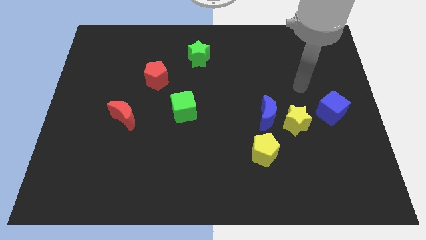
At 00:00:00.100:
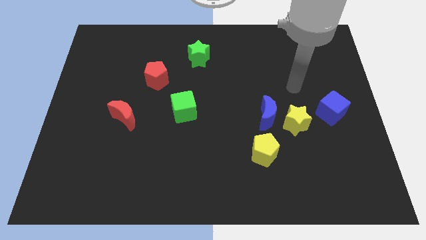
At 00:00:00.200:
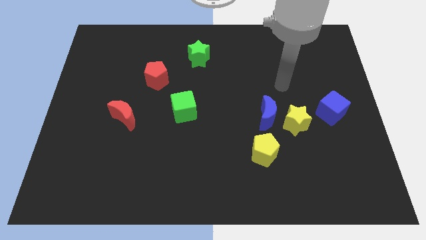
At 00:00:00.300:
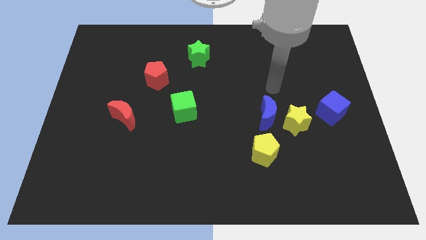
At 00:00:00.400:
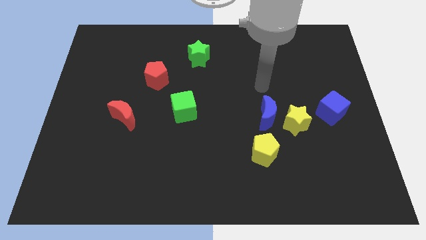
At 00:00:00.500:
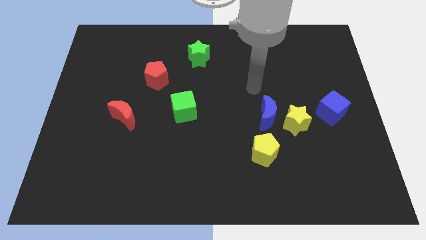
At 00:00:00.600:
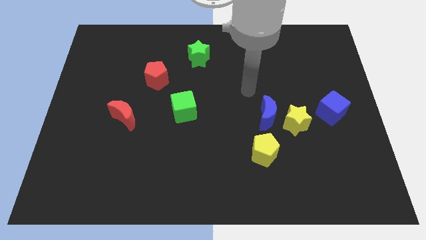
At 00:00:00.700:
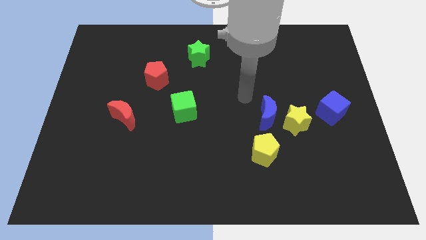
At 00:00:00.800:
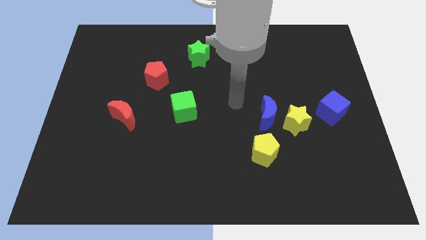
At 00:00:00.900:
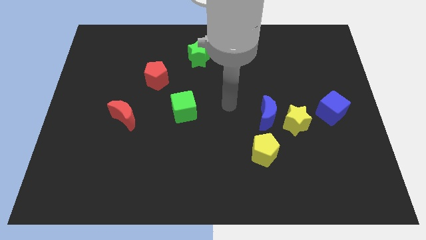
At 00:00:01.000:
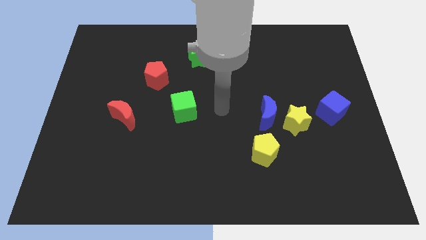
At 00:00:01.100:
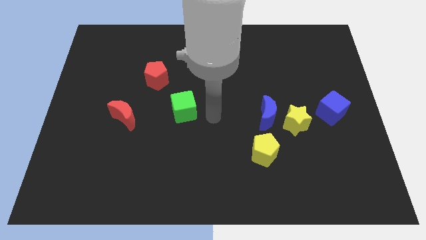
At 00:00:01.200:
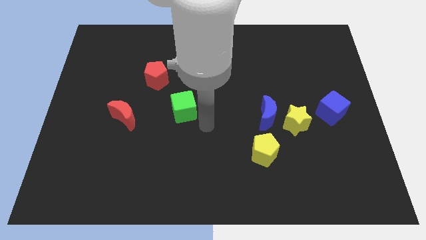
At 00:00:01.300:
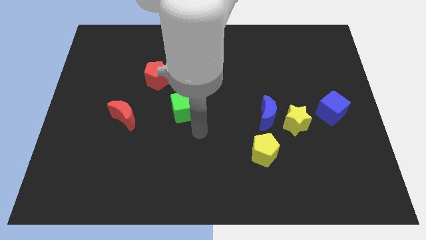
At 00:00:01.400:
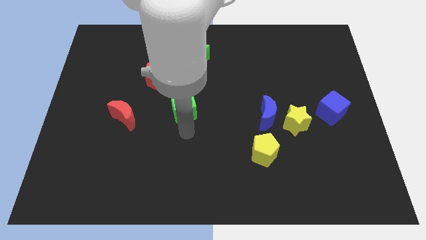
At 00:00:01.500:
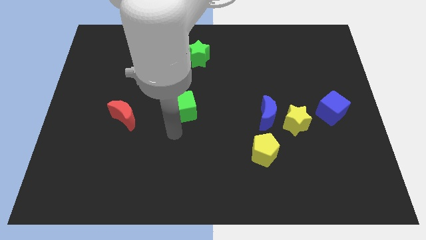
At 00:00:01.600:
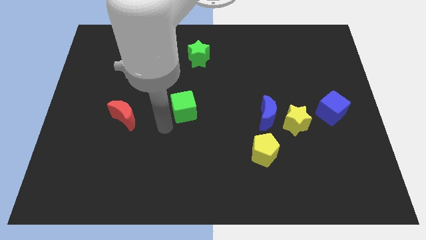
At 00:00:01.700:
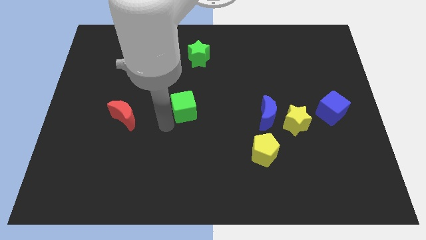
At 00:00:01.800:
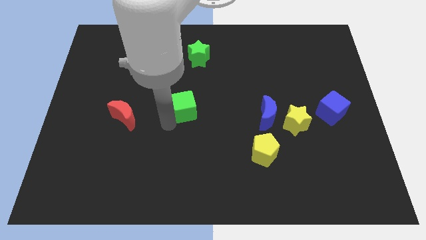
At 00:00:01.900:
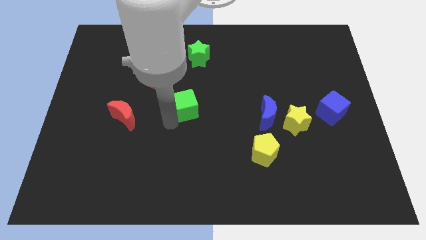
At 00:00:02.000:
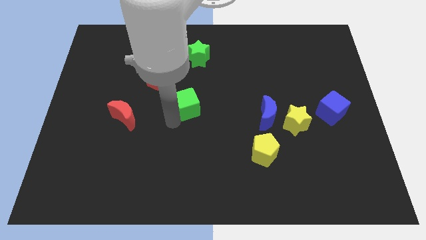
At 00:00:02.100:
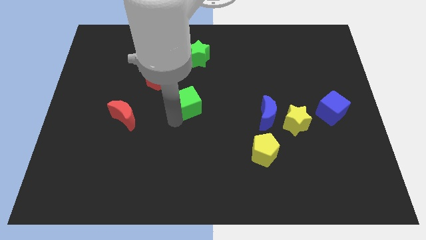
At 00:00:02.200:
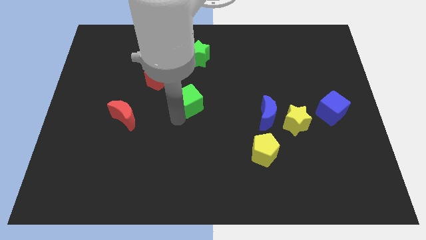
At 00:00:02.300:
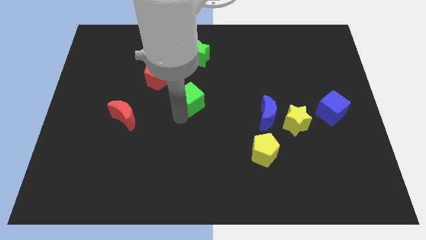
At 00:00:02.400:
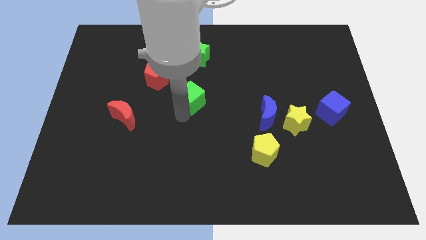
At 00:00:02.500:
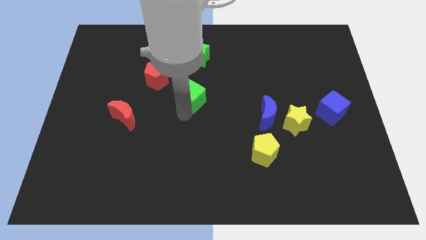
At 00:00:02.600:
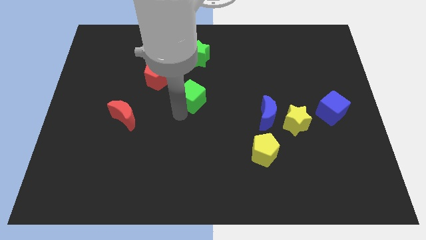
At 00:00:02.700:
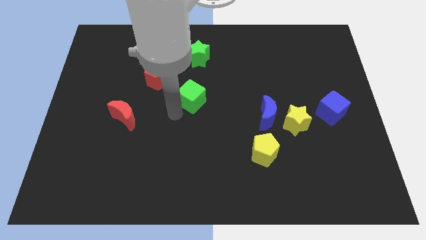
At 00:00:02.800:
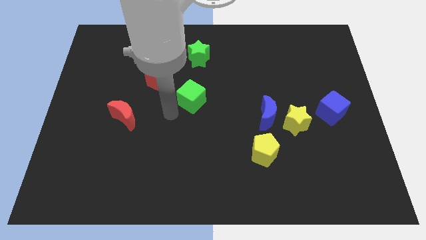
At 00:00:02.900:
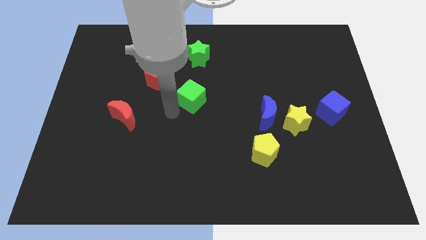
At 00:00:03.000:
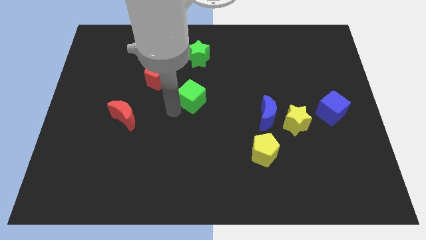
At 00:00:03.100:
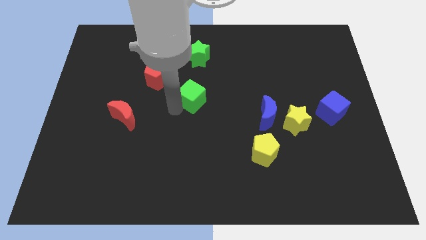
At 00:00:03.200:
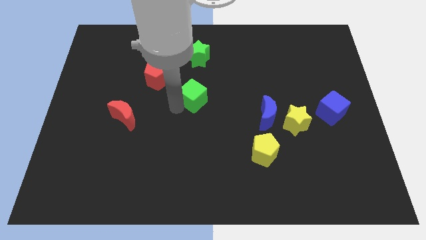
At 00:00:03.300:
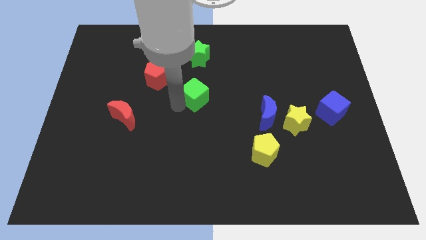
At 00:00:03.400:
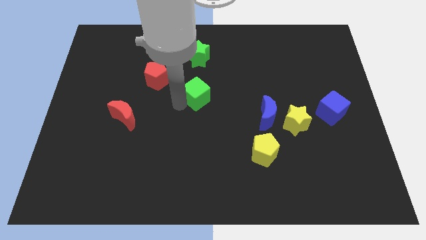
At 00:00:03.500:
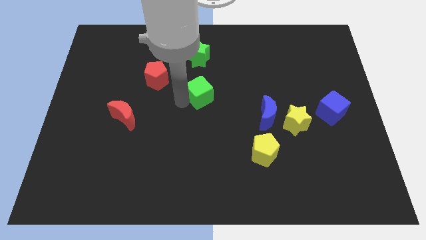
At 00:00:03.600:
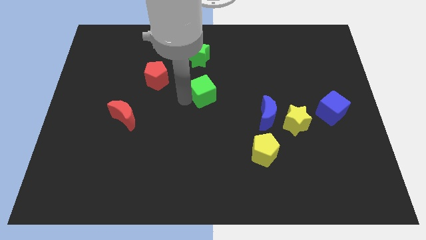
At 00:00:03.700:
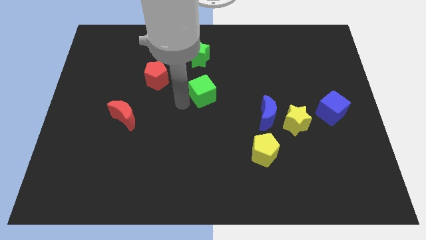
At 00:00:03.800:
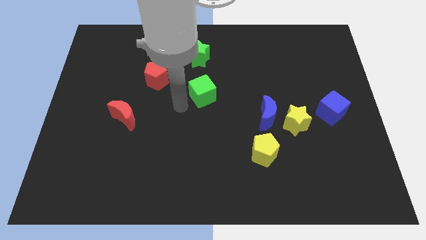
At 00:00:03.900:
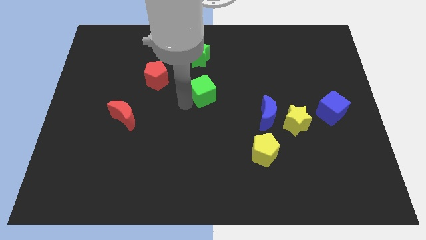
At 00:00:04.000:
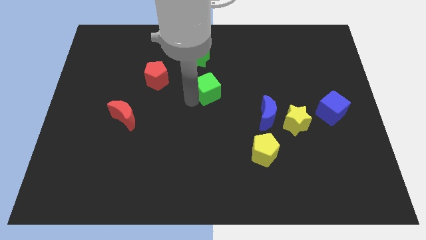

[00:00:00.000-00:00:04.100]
slide the green cube somewhat diagonally upwards and to the right

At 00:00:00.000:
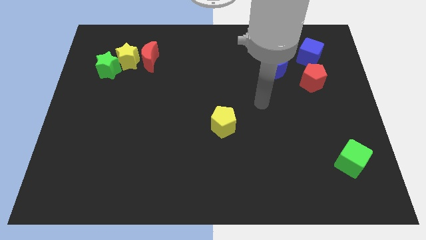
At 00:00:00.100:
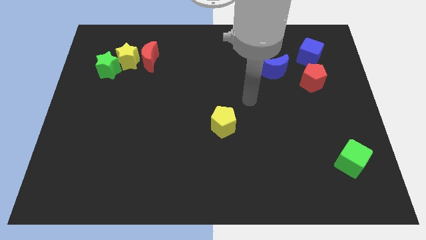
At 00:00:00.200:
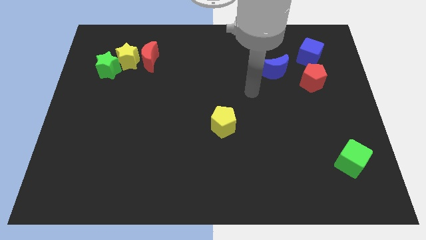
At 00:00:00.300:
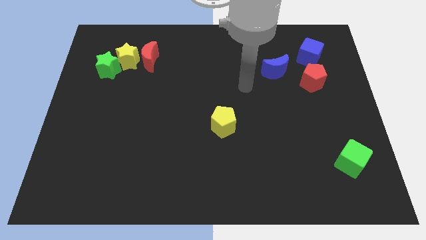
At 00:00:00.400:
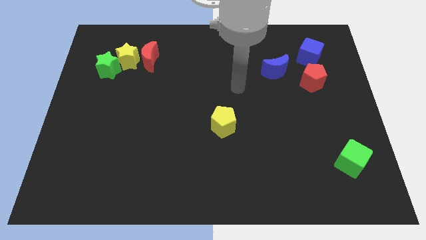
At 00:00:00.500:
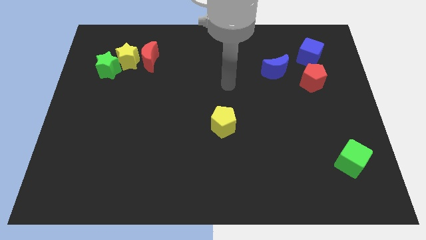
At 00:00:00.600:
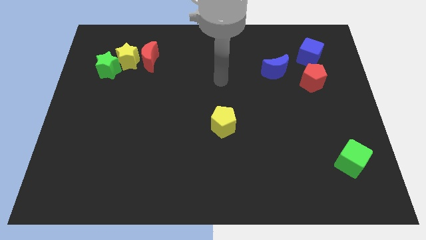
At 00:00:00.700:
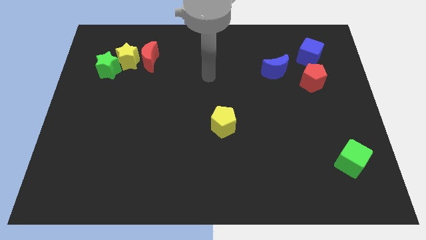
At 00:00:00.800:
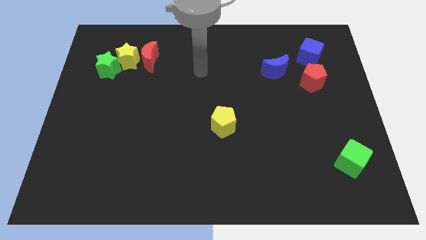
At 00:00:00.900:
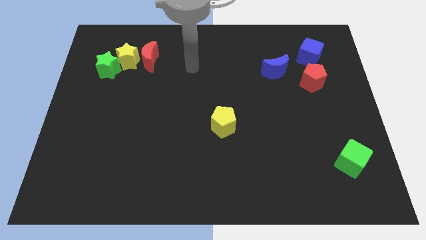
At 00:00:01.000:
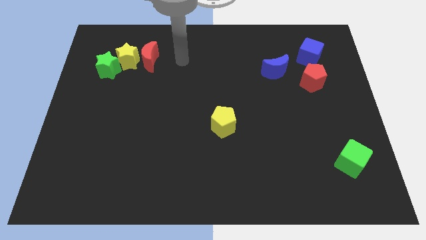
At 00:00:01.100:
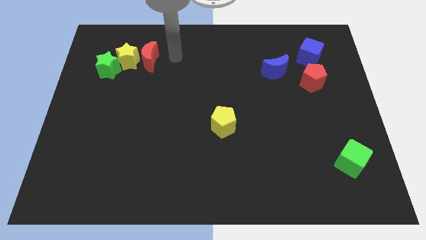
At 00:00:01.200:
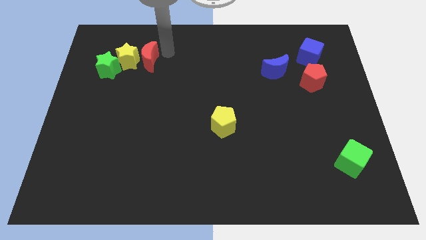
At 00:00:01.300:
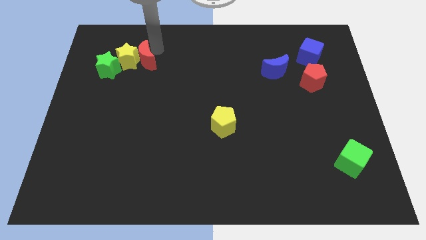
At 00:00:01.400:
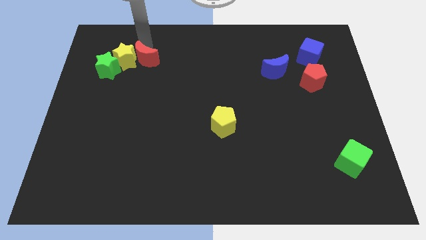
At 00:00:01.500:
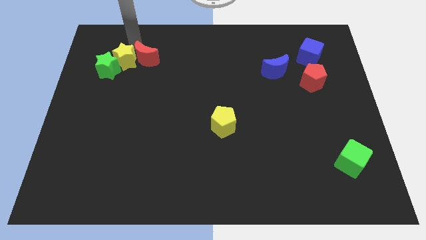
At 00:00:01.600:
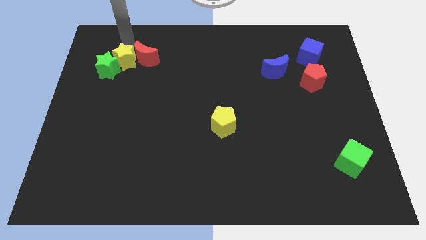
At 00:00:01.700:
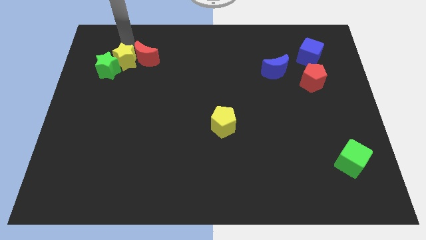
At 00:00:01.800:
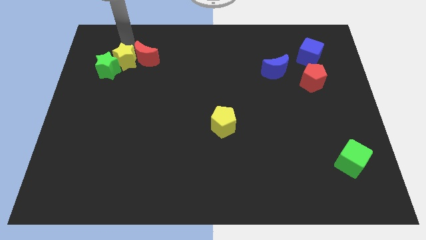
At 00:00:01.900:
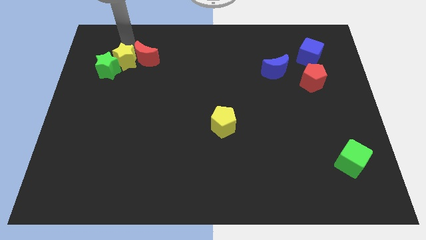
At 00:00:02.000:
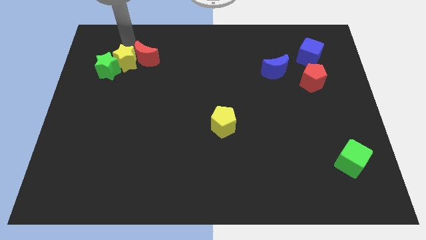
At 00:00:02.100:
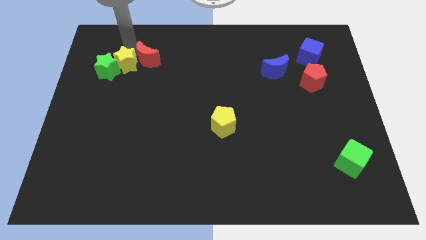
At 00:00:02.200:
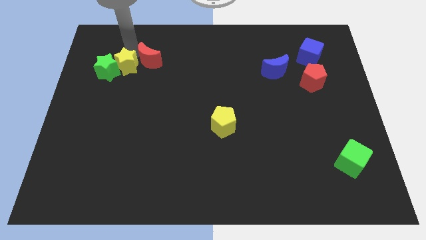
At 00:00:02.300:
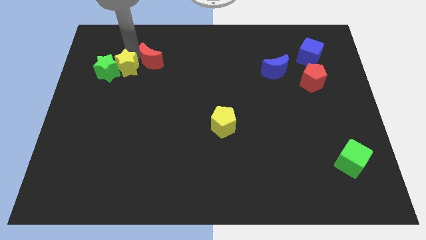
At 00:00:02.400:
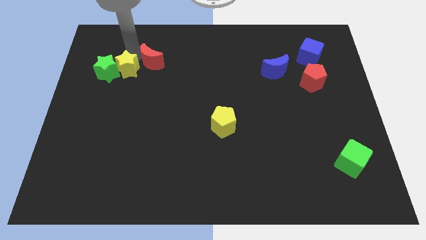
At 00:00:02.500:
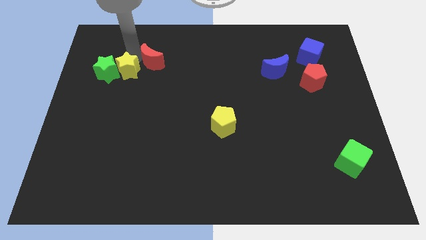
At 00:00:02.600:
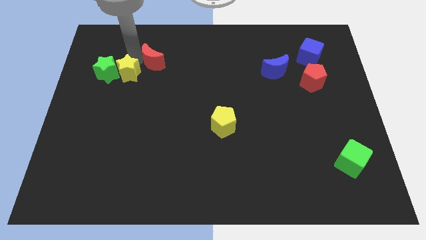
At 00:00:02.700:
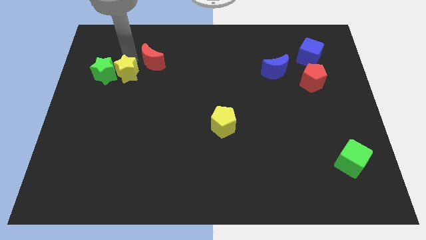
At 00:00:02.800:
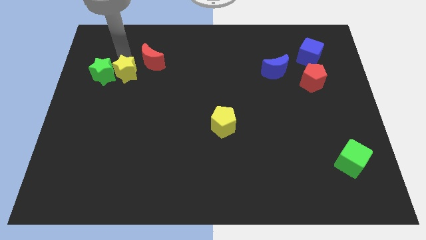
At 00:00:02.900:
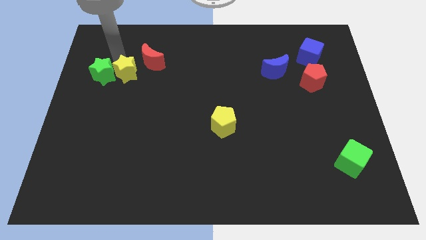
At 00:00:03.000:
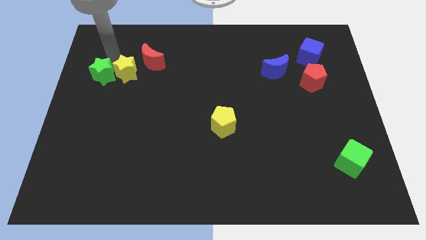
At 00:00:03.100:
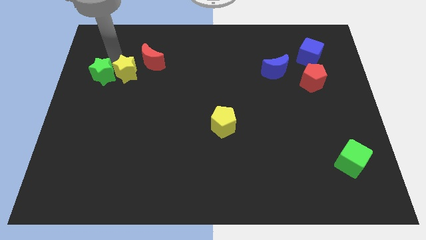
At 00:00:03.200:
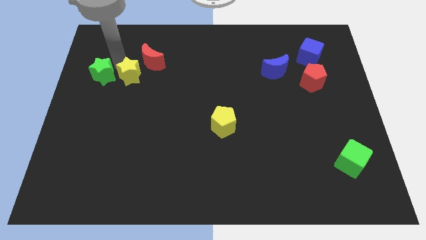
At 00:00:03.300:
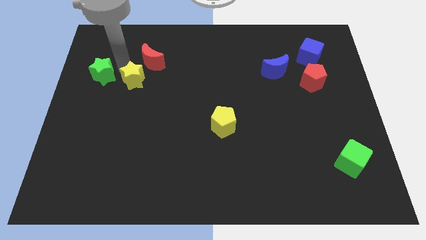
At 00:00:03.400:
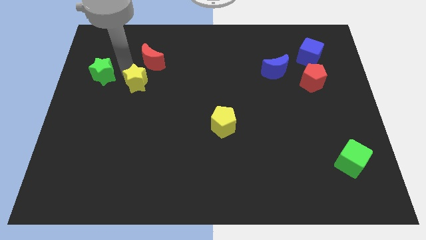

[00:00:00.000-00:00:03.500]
move the yellow star a little bit diagonally downwards and right

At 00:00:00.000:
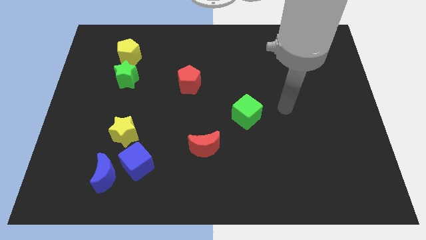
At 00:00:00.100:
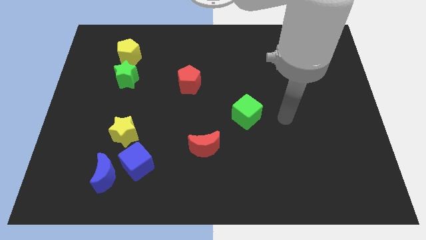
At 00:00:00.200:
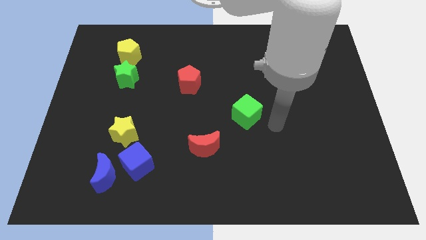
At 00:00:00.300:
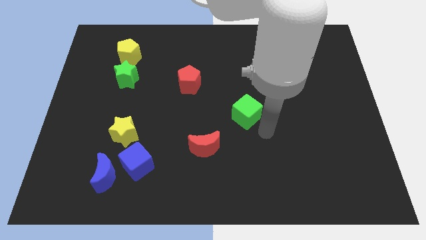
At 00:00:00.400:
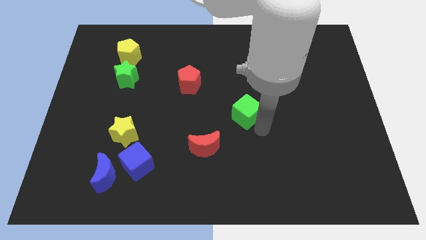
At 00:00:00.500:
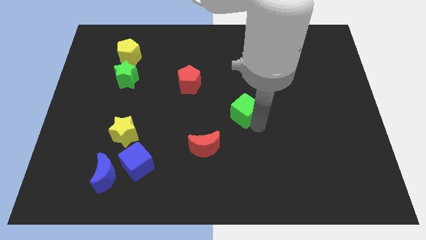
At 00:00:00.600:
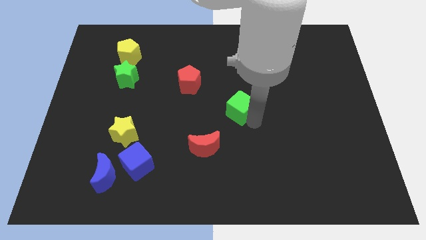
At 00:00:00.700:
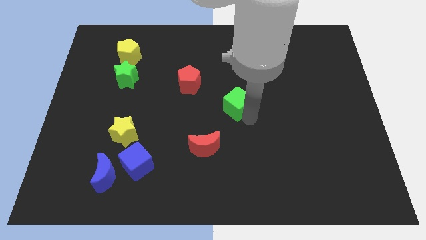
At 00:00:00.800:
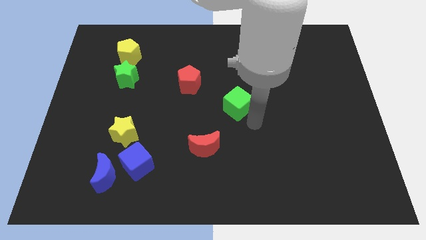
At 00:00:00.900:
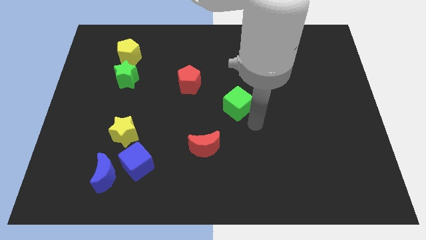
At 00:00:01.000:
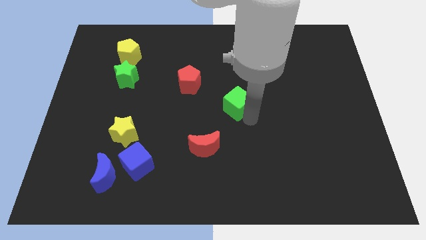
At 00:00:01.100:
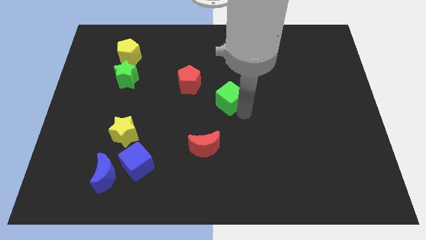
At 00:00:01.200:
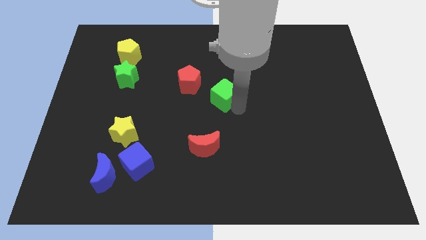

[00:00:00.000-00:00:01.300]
slightly push the green cube upwards and to the left
